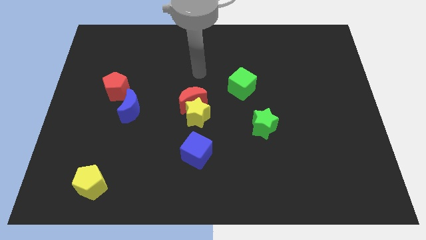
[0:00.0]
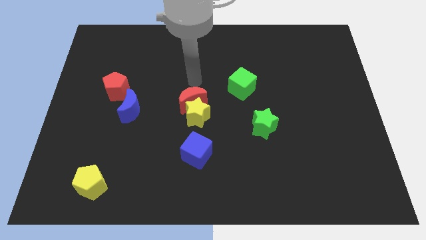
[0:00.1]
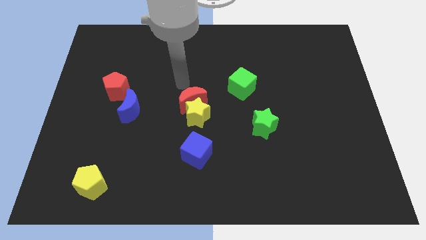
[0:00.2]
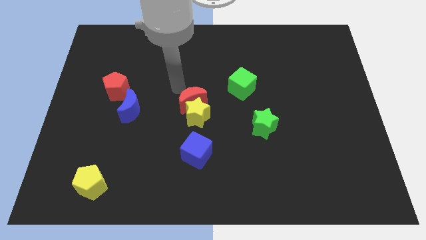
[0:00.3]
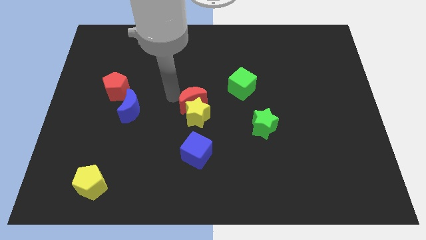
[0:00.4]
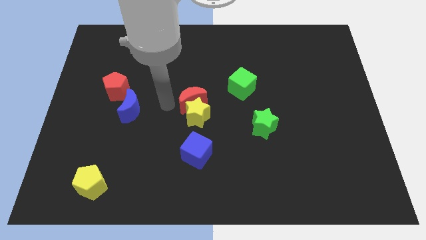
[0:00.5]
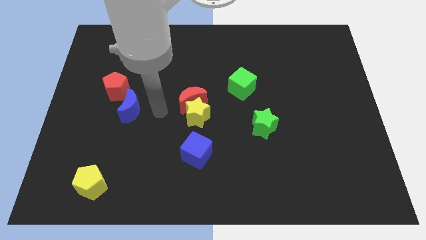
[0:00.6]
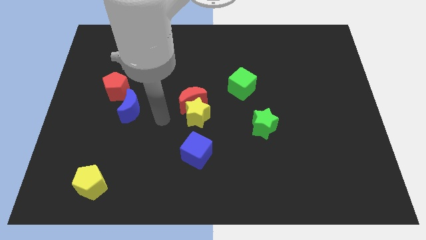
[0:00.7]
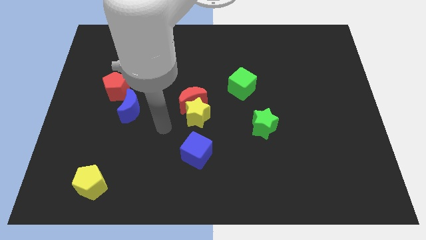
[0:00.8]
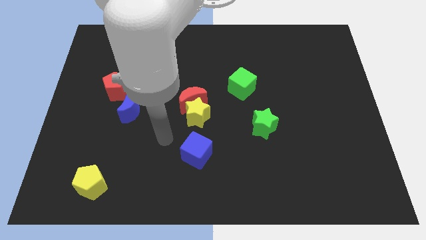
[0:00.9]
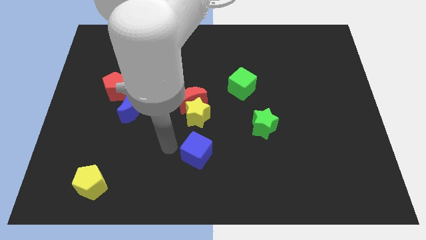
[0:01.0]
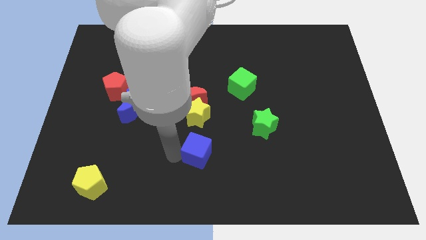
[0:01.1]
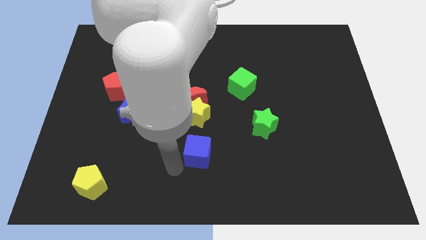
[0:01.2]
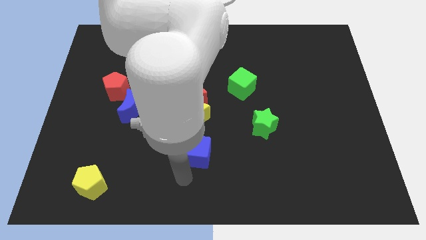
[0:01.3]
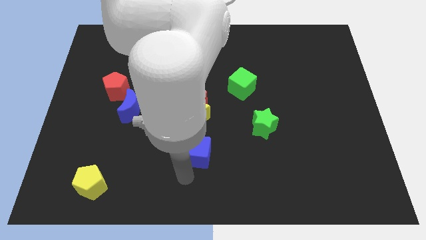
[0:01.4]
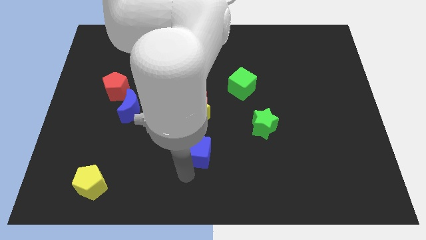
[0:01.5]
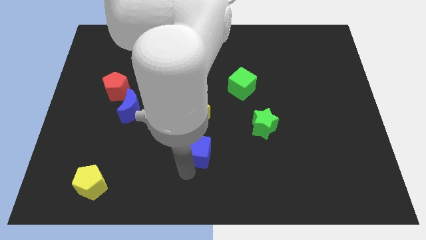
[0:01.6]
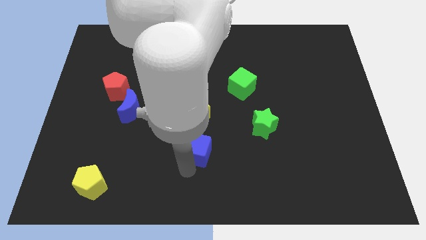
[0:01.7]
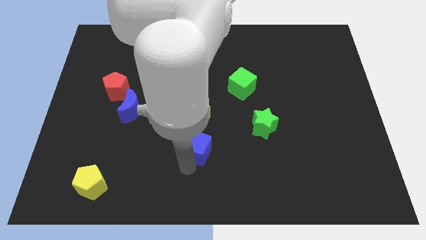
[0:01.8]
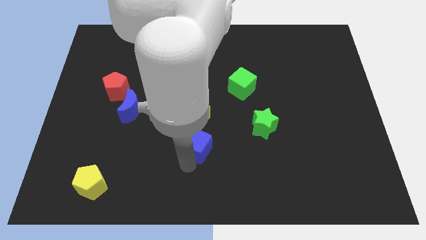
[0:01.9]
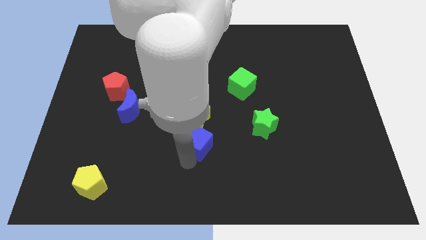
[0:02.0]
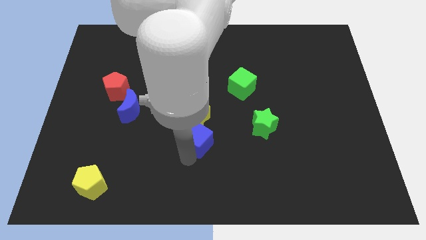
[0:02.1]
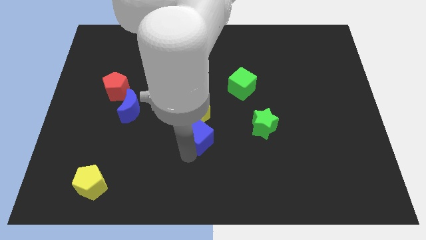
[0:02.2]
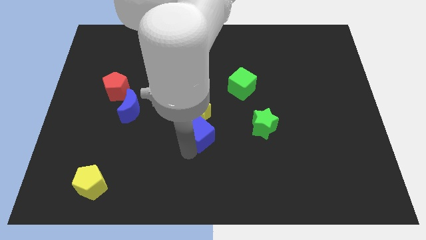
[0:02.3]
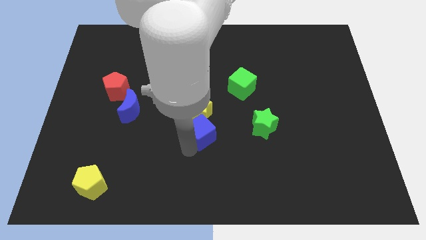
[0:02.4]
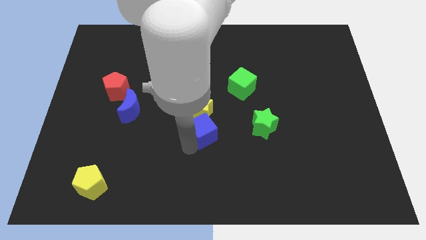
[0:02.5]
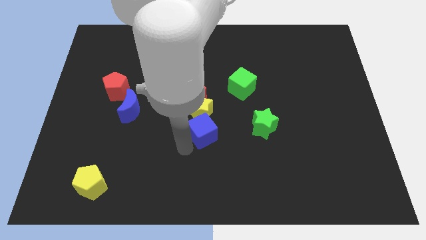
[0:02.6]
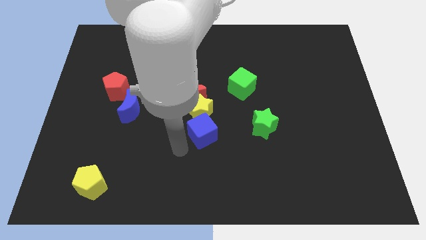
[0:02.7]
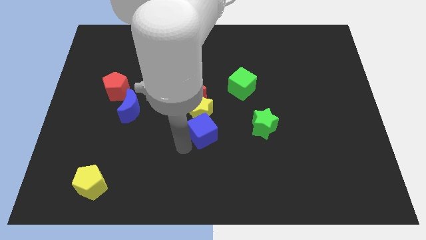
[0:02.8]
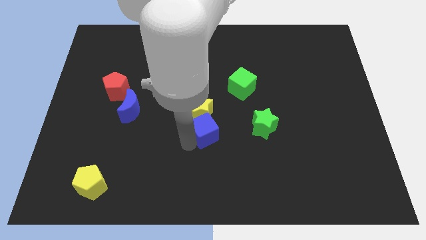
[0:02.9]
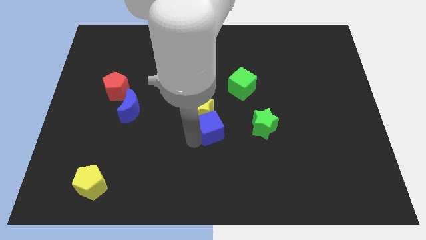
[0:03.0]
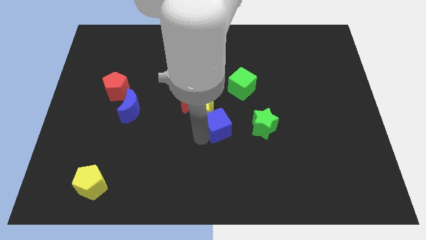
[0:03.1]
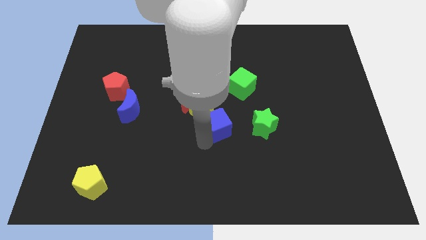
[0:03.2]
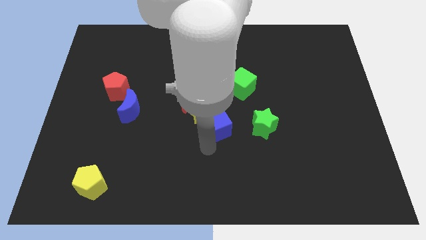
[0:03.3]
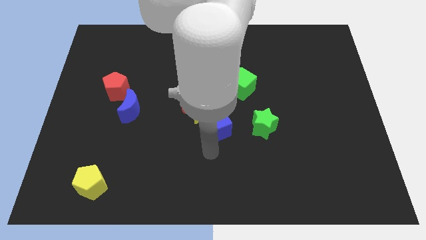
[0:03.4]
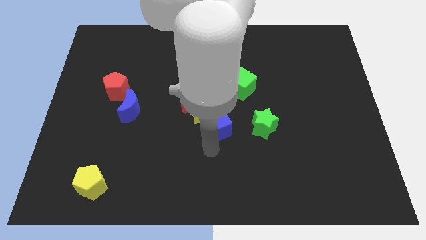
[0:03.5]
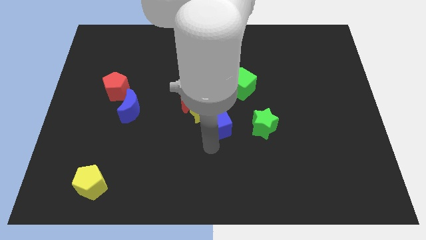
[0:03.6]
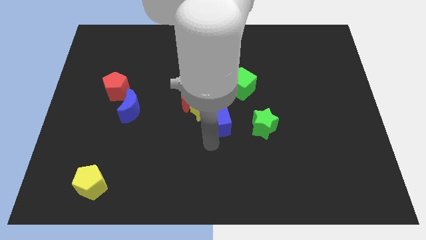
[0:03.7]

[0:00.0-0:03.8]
slide the blue cube slightly up

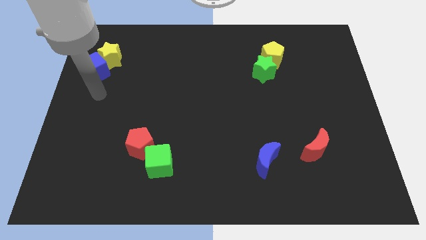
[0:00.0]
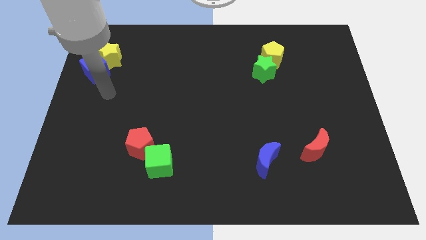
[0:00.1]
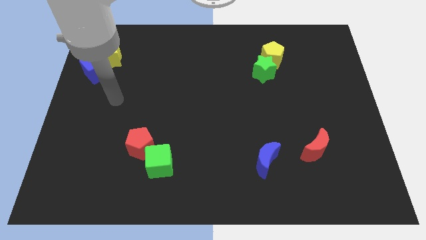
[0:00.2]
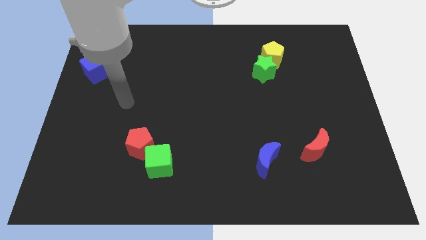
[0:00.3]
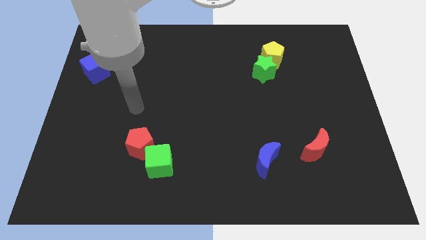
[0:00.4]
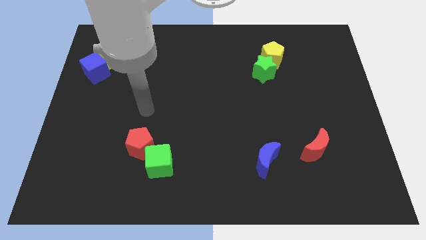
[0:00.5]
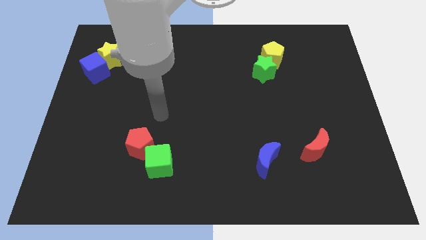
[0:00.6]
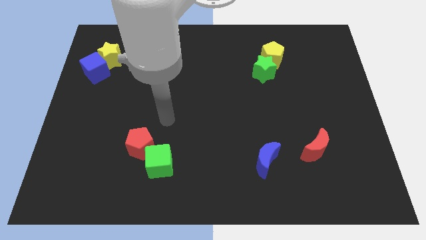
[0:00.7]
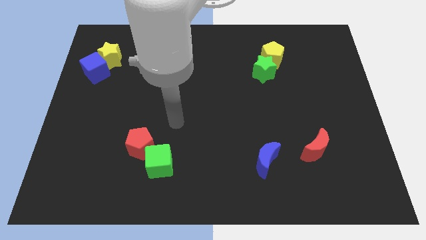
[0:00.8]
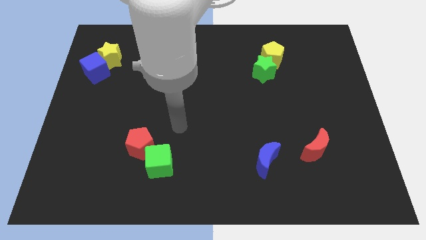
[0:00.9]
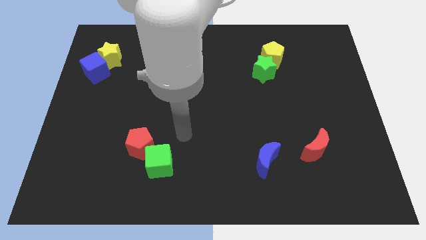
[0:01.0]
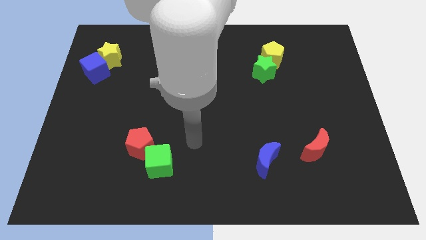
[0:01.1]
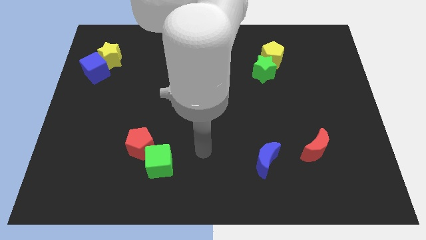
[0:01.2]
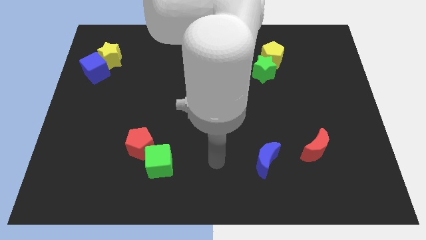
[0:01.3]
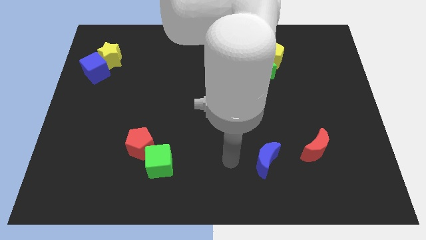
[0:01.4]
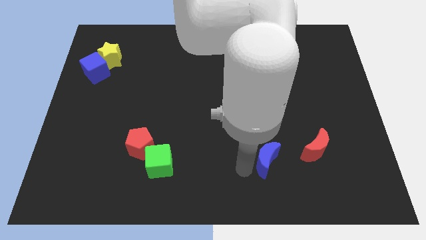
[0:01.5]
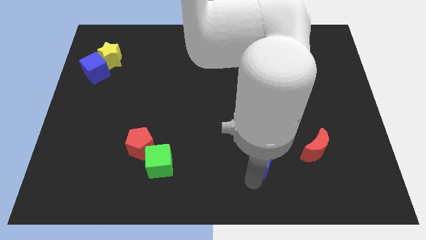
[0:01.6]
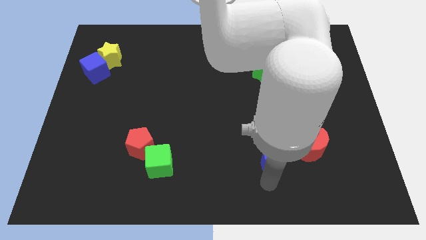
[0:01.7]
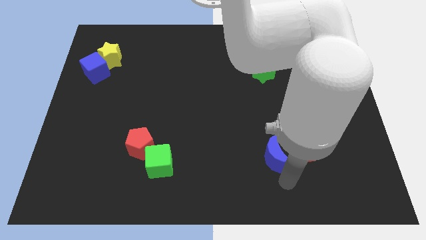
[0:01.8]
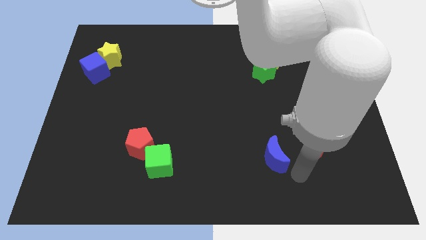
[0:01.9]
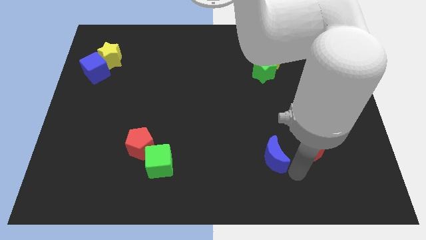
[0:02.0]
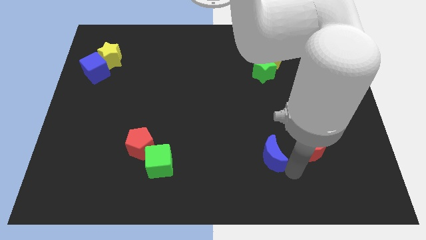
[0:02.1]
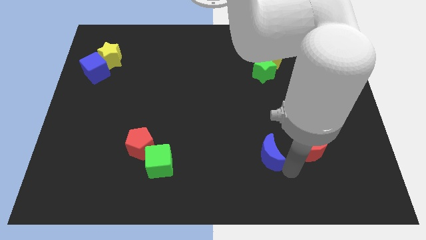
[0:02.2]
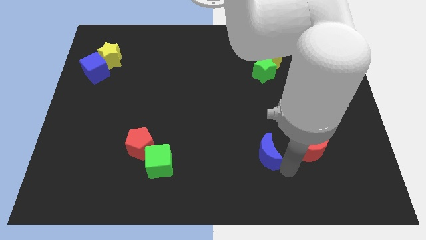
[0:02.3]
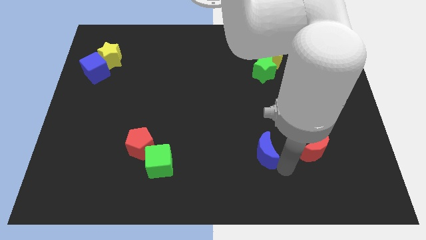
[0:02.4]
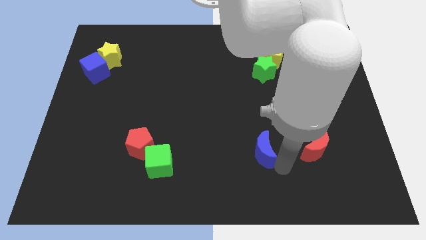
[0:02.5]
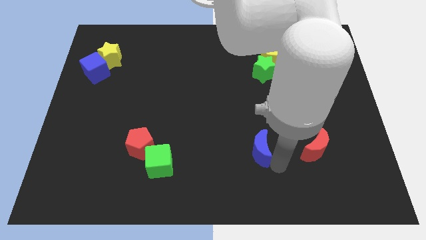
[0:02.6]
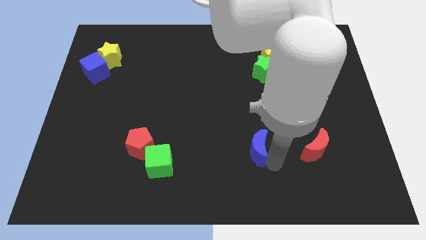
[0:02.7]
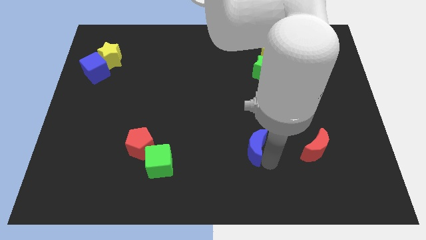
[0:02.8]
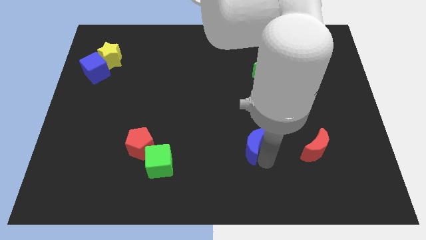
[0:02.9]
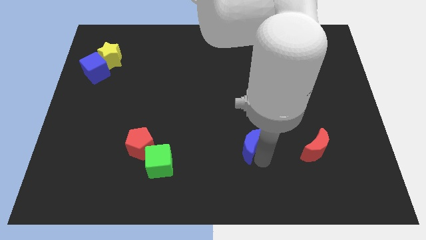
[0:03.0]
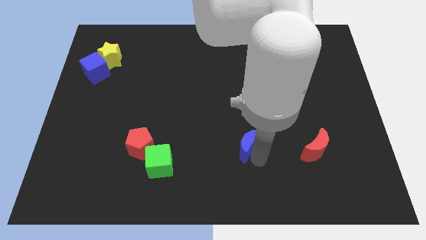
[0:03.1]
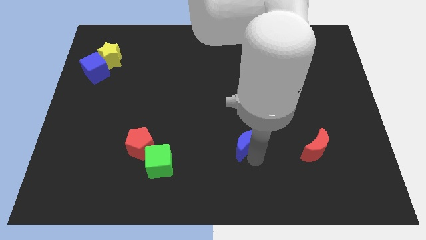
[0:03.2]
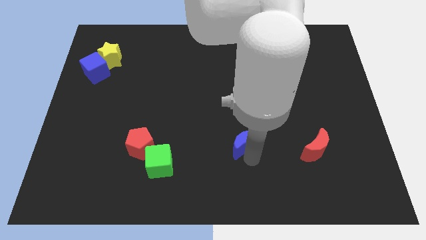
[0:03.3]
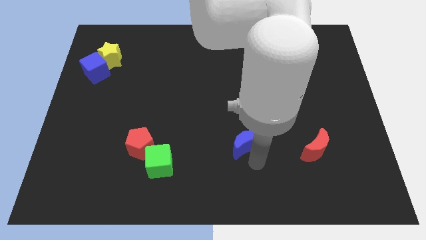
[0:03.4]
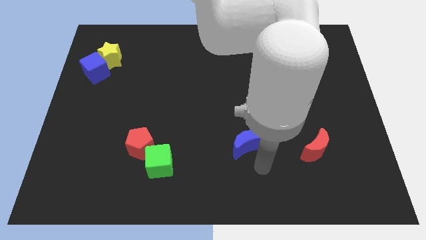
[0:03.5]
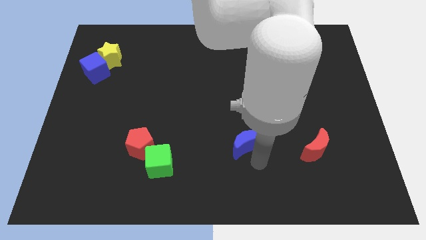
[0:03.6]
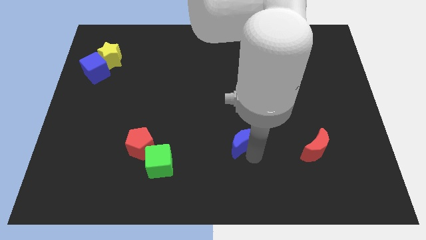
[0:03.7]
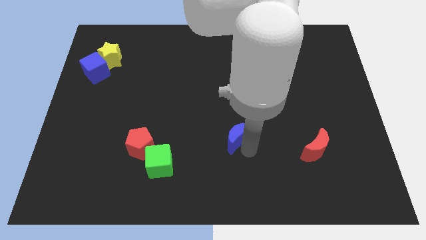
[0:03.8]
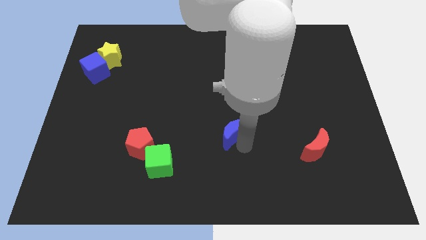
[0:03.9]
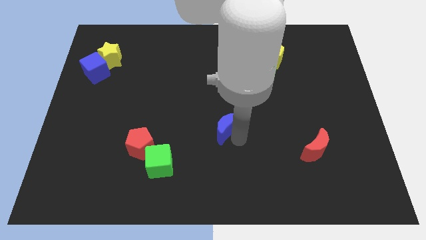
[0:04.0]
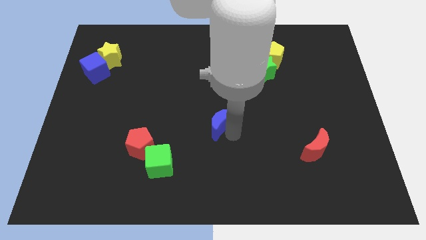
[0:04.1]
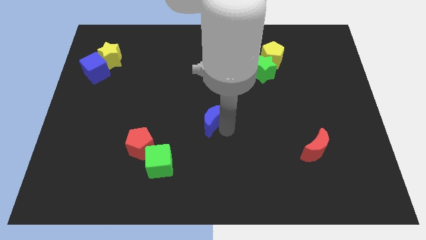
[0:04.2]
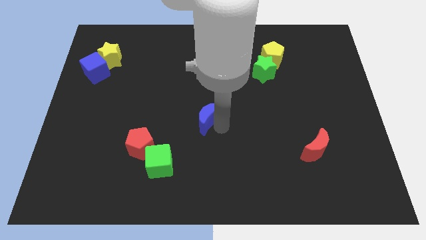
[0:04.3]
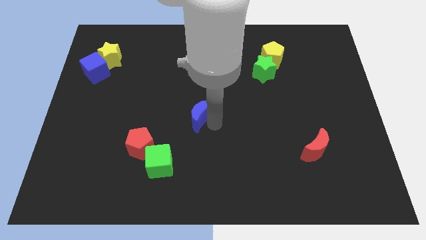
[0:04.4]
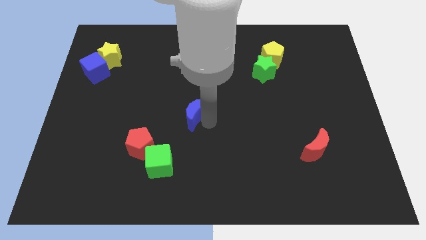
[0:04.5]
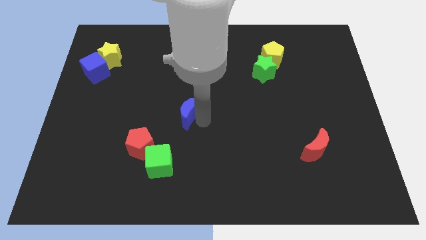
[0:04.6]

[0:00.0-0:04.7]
slide the blue moon up and to the left diagonally

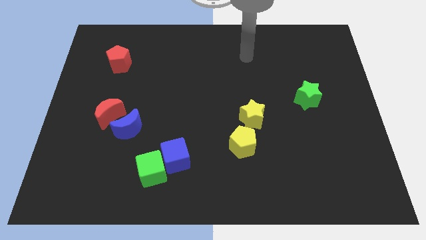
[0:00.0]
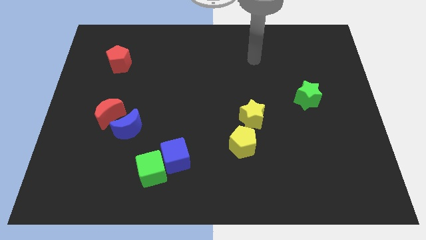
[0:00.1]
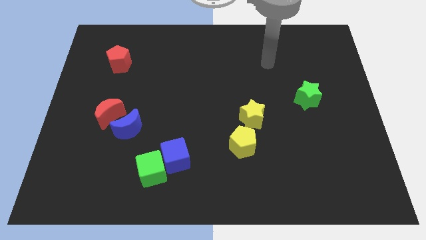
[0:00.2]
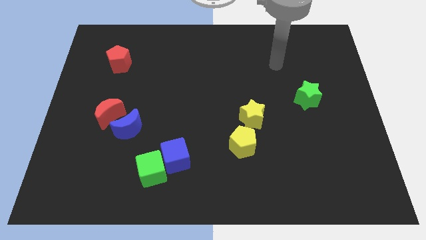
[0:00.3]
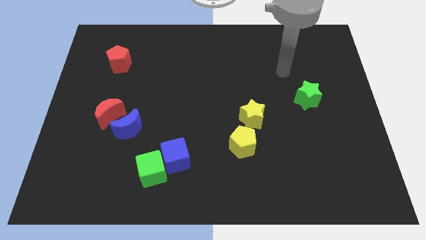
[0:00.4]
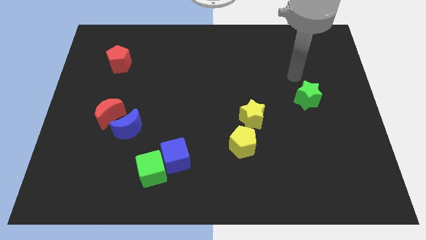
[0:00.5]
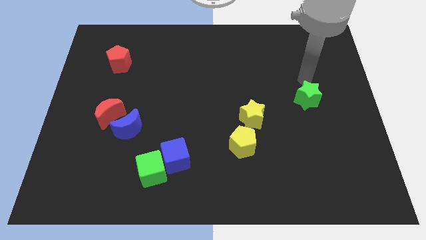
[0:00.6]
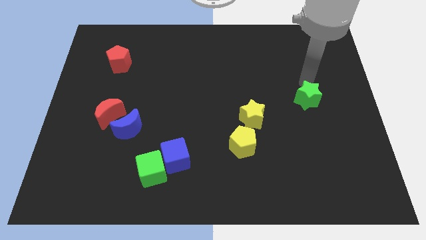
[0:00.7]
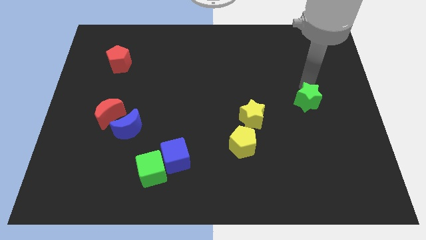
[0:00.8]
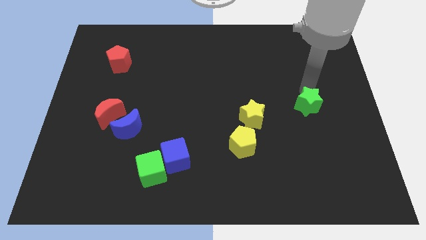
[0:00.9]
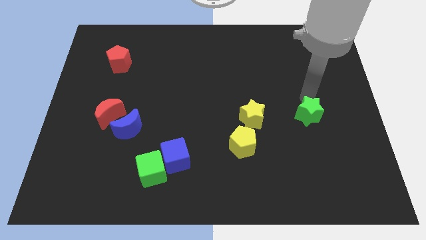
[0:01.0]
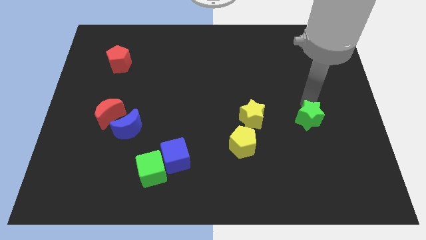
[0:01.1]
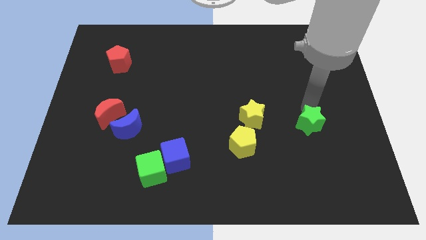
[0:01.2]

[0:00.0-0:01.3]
slide the green star a bit downwards
